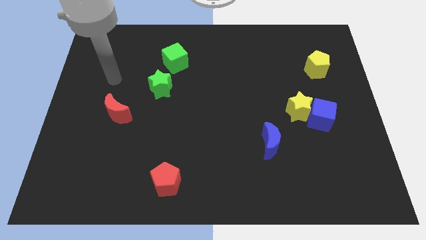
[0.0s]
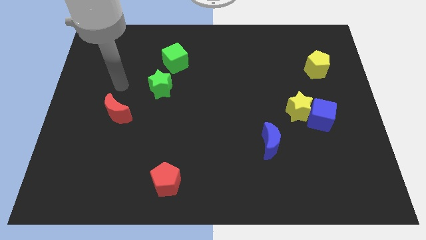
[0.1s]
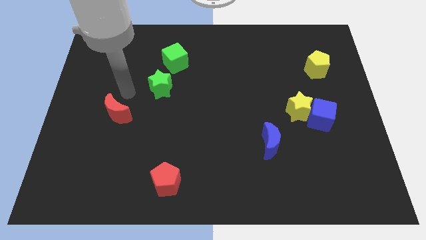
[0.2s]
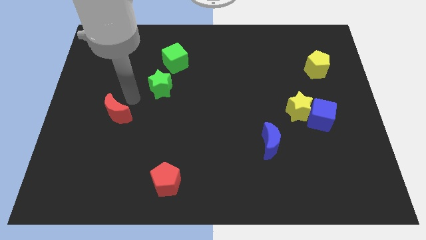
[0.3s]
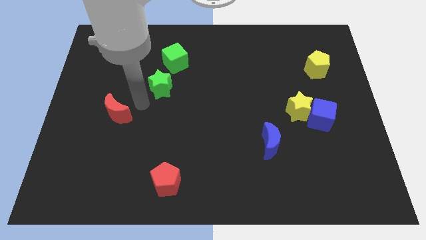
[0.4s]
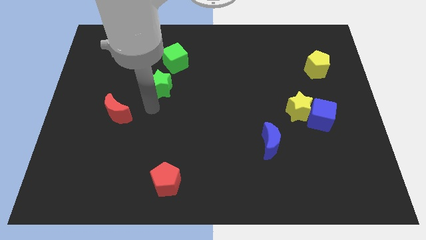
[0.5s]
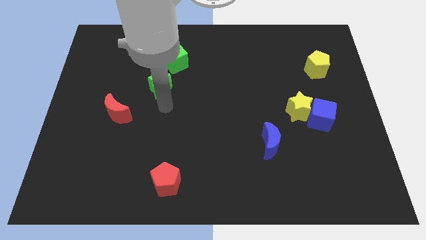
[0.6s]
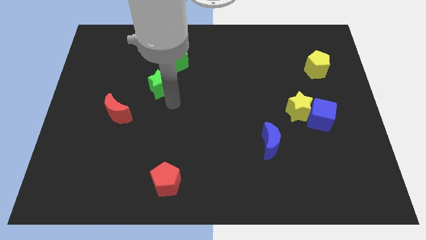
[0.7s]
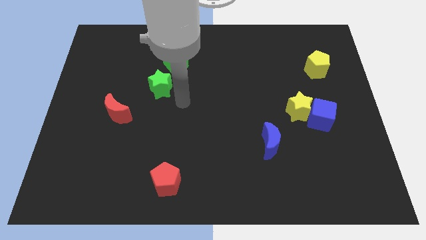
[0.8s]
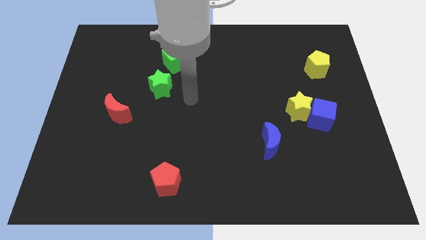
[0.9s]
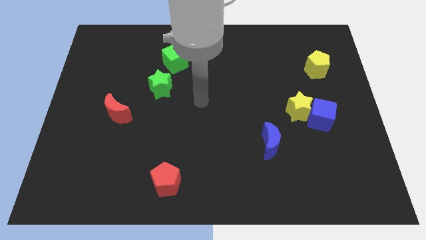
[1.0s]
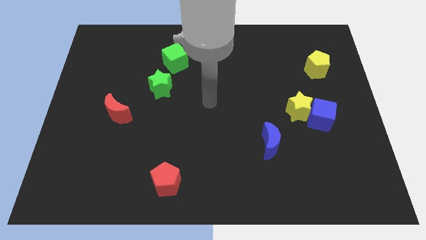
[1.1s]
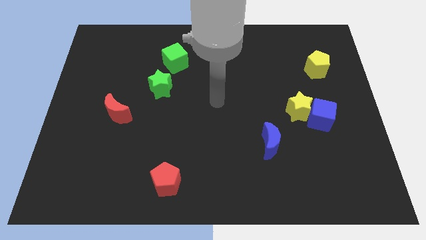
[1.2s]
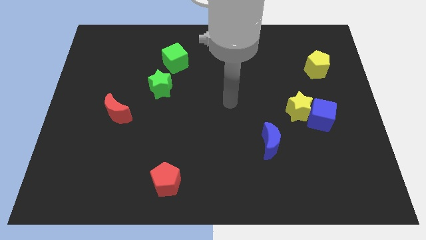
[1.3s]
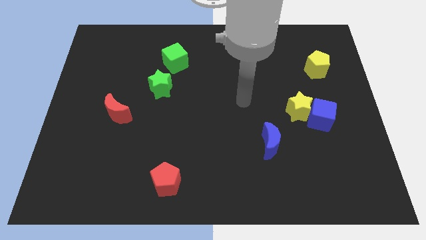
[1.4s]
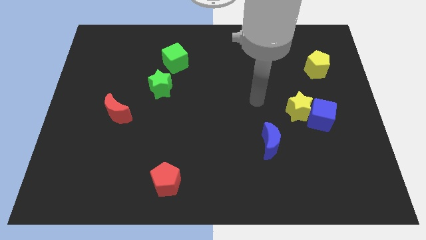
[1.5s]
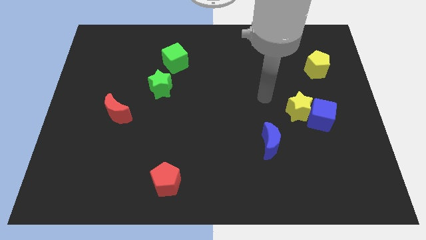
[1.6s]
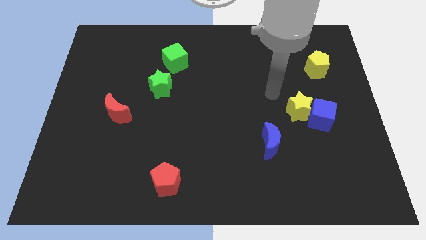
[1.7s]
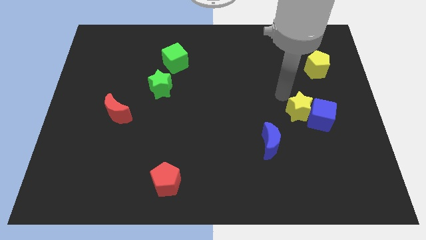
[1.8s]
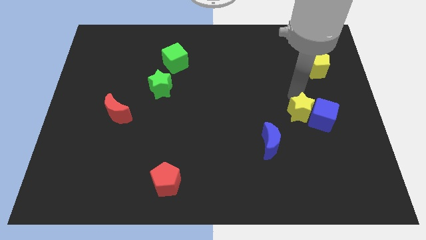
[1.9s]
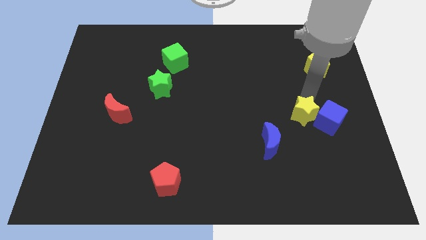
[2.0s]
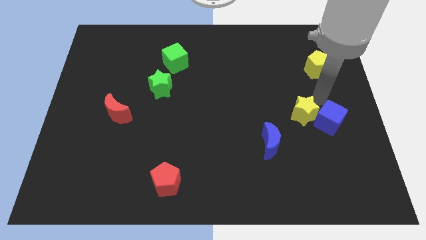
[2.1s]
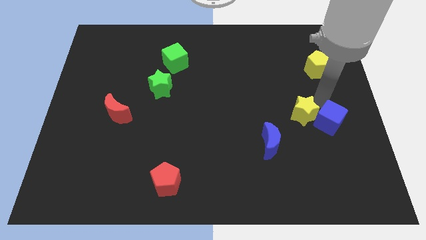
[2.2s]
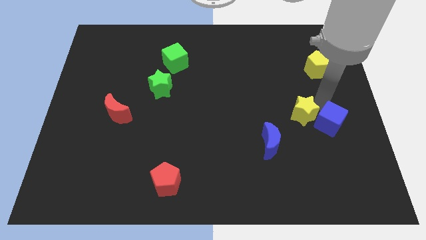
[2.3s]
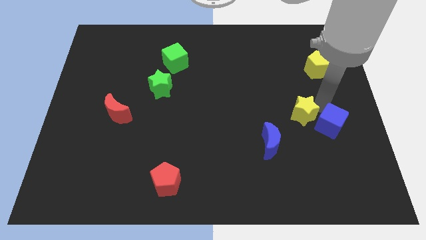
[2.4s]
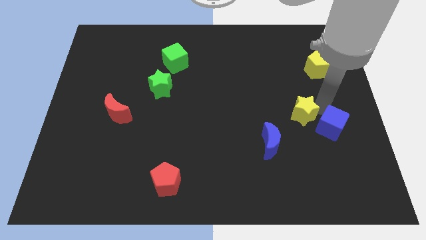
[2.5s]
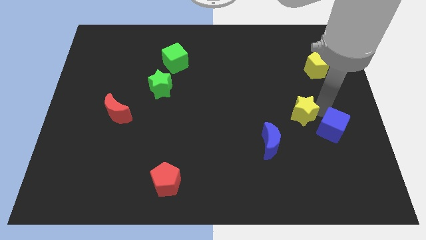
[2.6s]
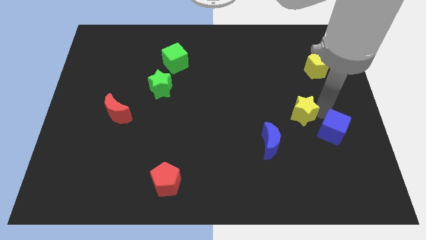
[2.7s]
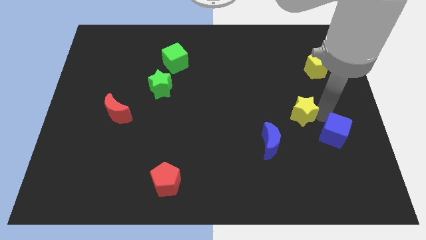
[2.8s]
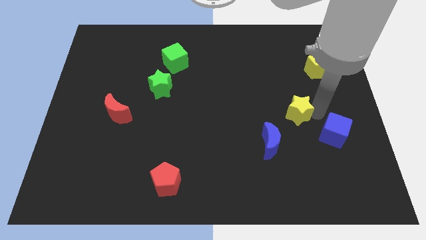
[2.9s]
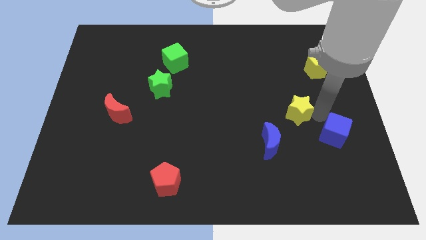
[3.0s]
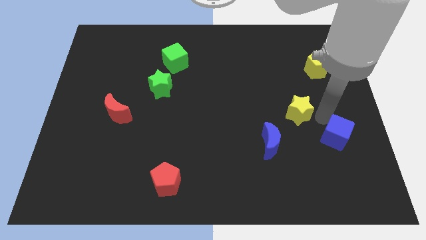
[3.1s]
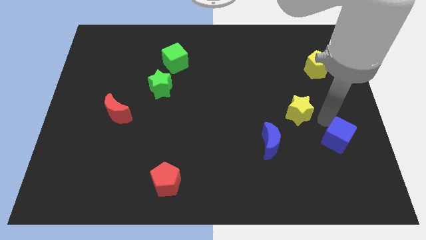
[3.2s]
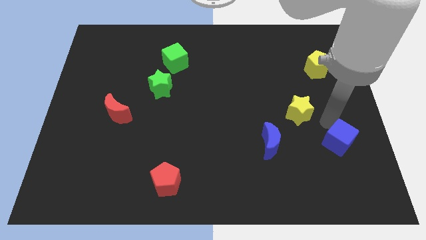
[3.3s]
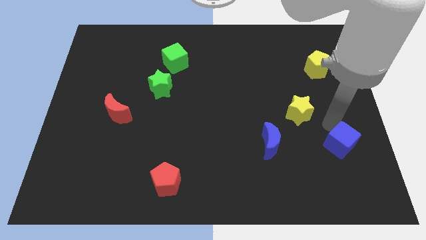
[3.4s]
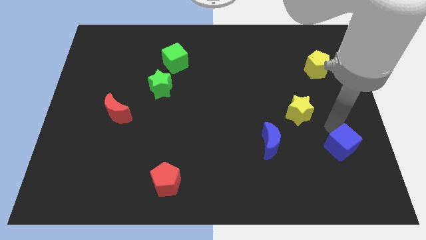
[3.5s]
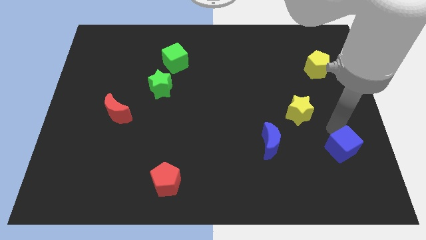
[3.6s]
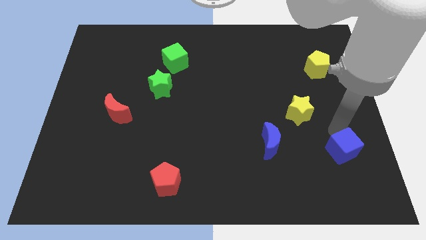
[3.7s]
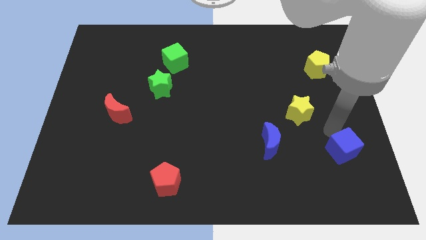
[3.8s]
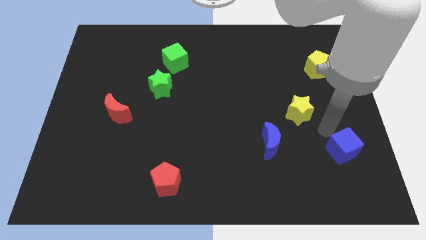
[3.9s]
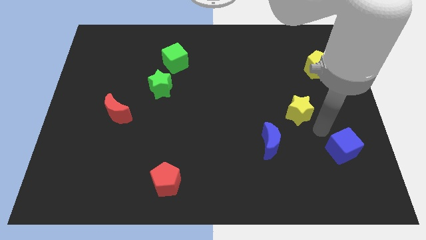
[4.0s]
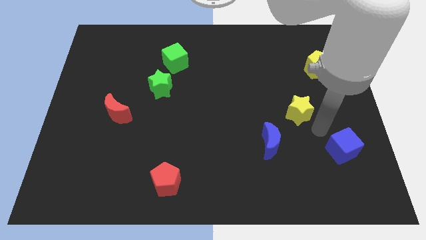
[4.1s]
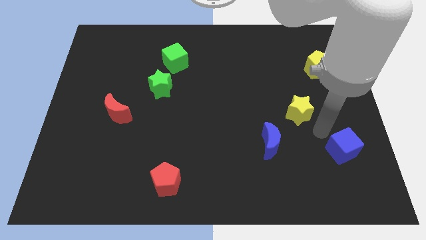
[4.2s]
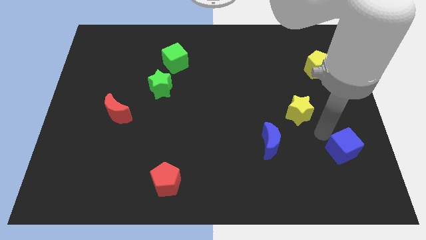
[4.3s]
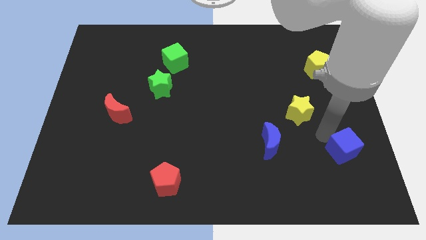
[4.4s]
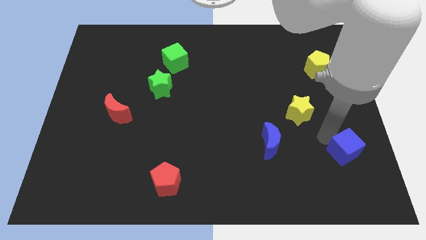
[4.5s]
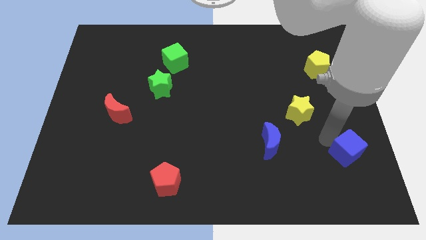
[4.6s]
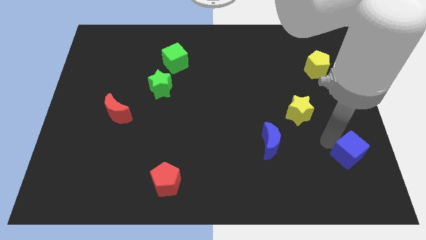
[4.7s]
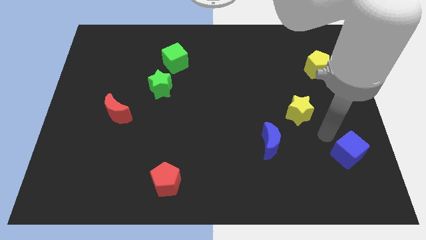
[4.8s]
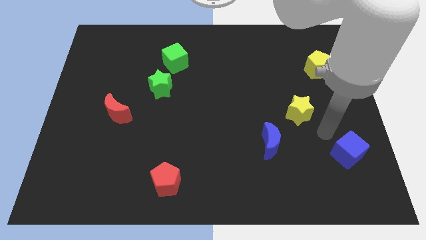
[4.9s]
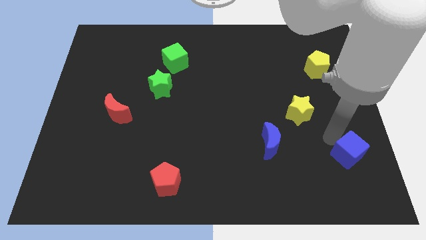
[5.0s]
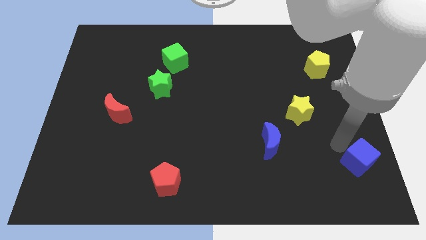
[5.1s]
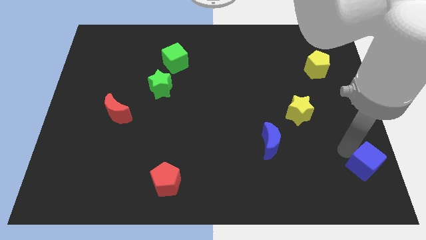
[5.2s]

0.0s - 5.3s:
push the blue cube to the bottom right of the board

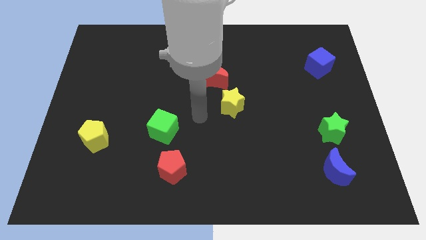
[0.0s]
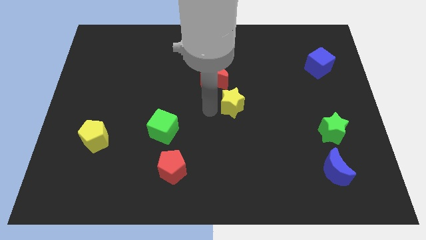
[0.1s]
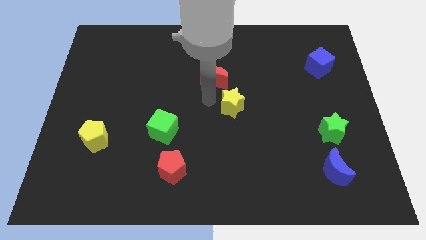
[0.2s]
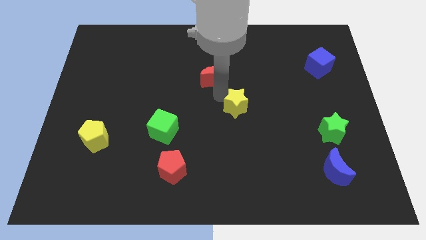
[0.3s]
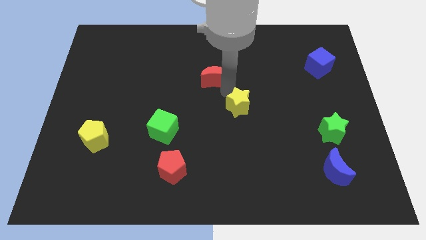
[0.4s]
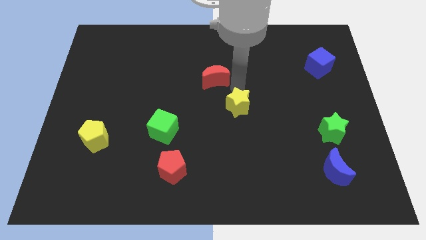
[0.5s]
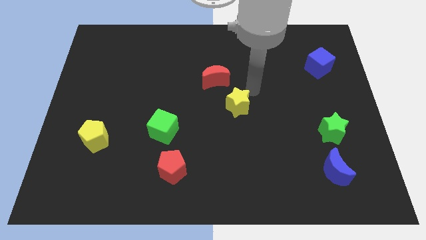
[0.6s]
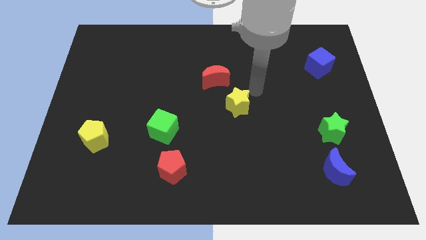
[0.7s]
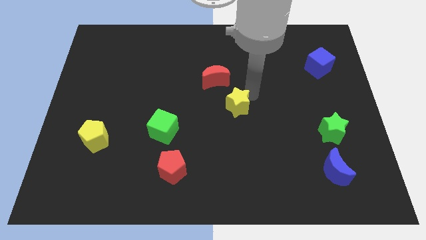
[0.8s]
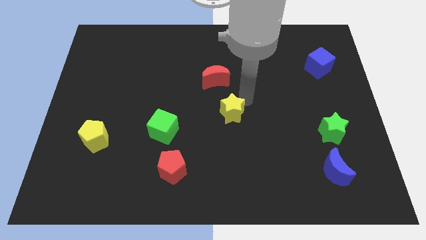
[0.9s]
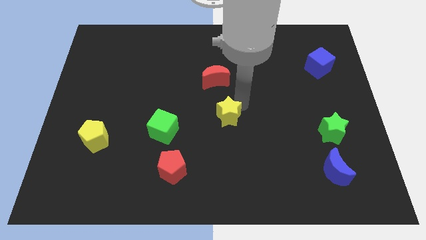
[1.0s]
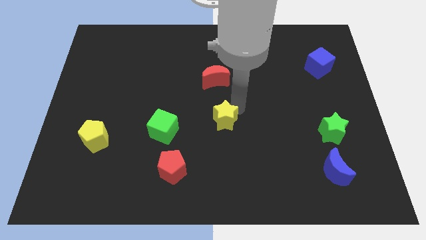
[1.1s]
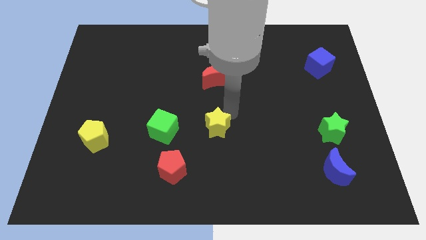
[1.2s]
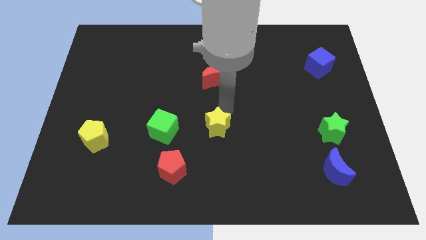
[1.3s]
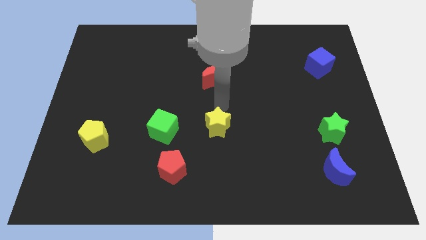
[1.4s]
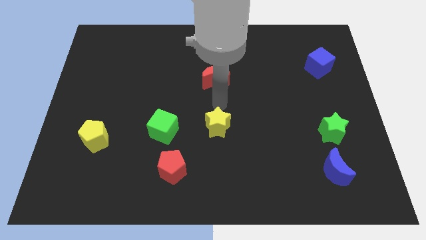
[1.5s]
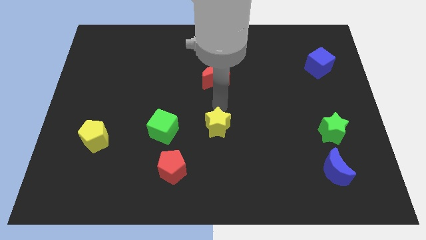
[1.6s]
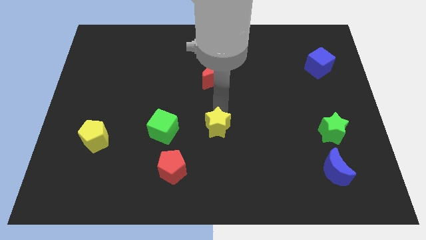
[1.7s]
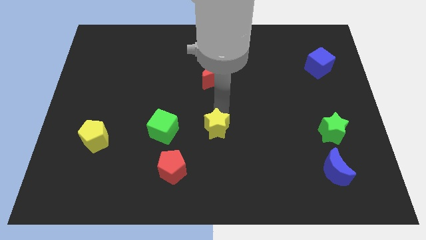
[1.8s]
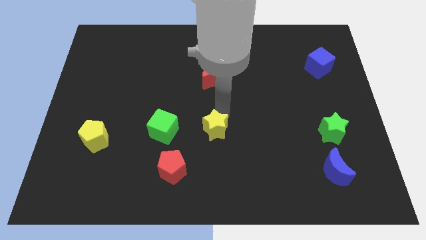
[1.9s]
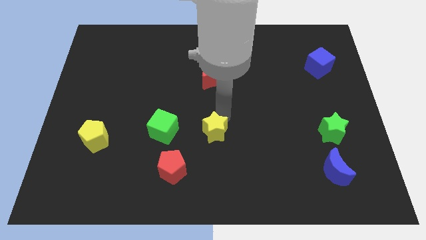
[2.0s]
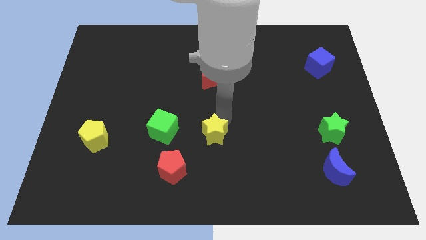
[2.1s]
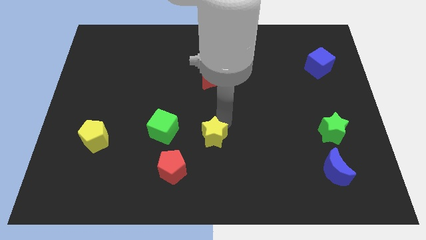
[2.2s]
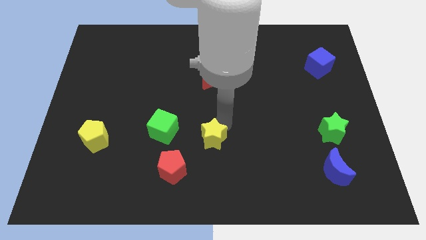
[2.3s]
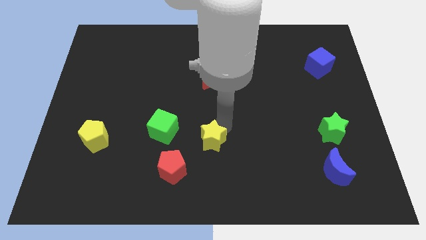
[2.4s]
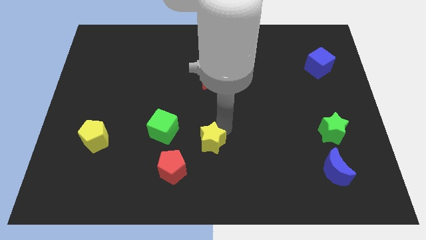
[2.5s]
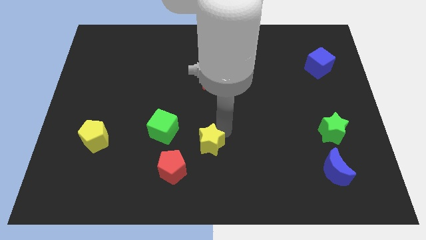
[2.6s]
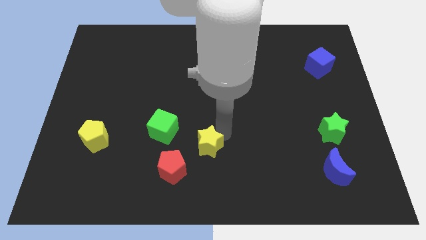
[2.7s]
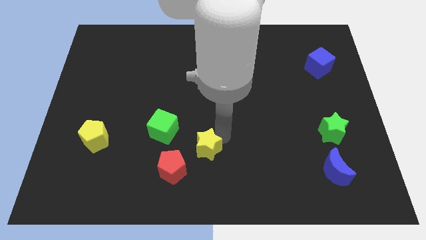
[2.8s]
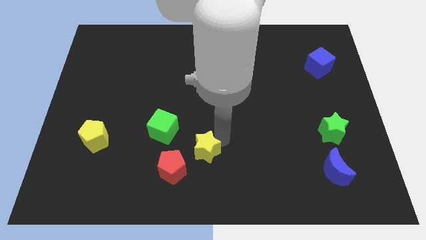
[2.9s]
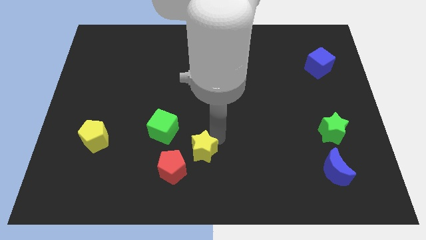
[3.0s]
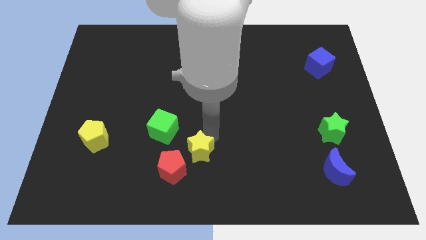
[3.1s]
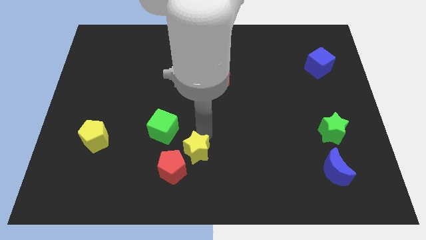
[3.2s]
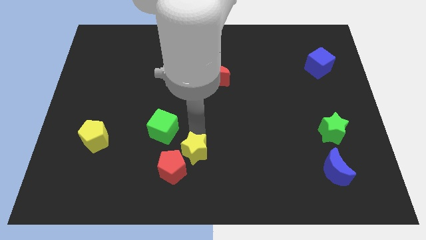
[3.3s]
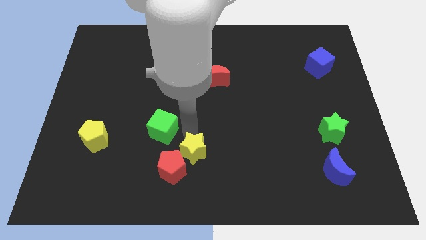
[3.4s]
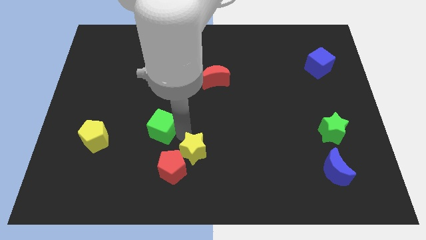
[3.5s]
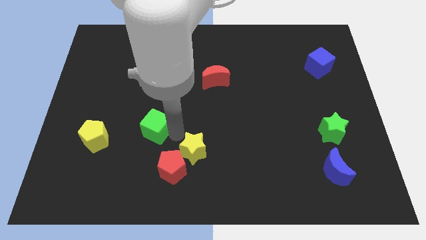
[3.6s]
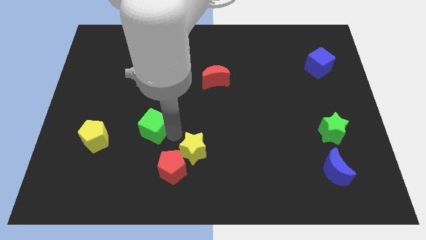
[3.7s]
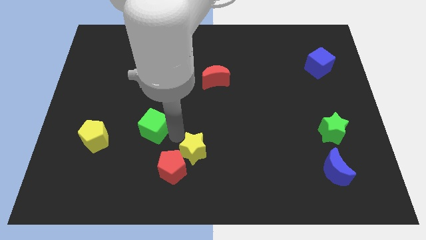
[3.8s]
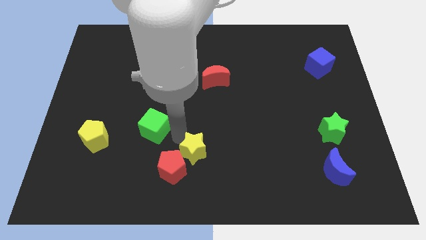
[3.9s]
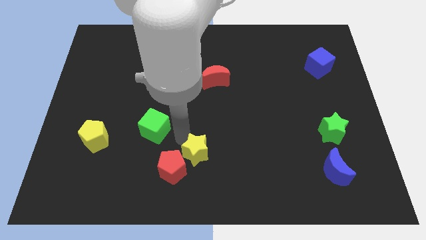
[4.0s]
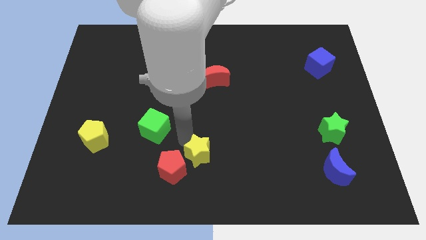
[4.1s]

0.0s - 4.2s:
push the yellow star to the bottom
